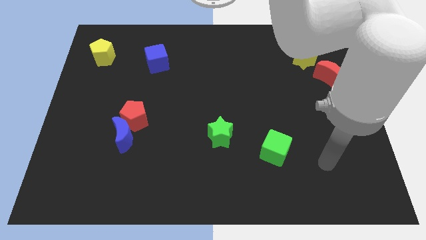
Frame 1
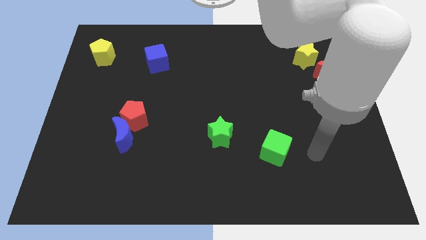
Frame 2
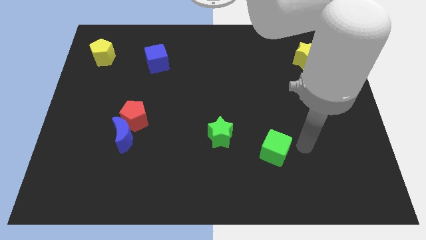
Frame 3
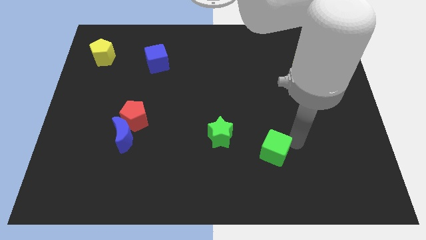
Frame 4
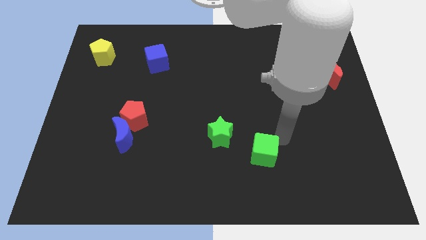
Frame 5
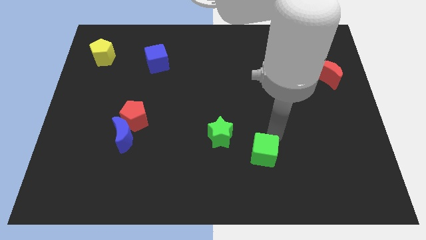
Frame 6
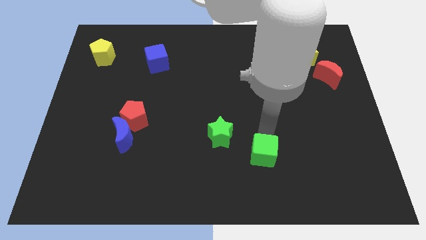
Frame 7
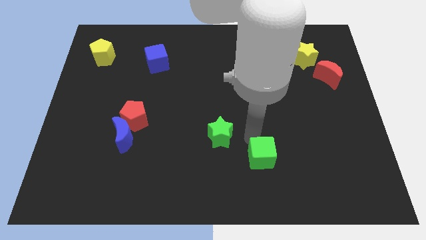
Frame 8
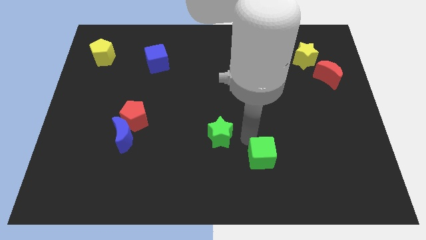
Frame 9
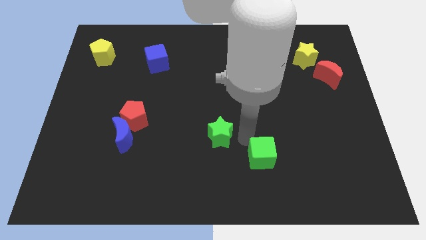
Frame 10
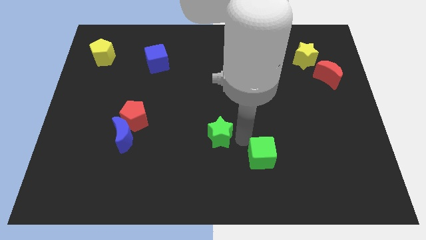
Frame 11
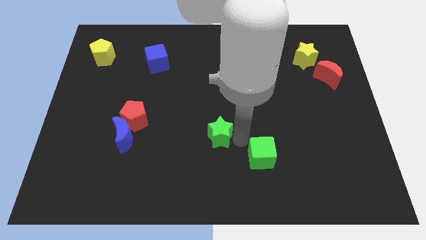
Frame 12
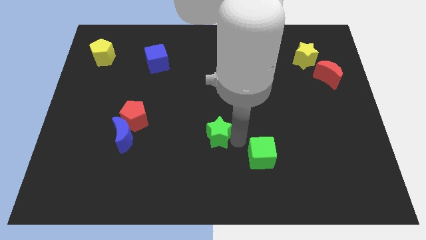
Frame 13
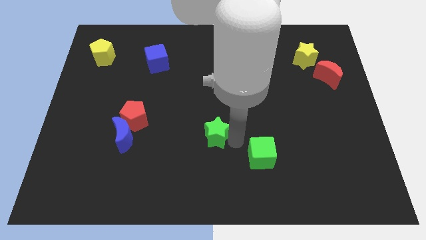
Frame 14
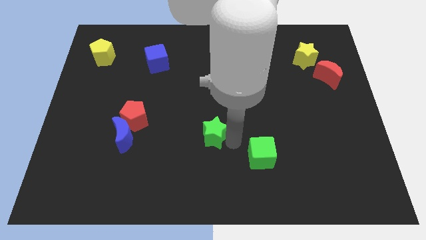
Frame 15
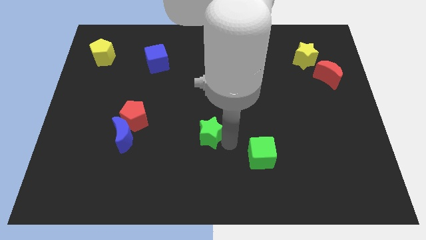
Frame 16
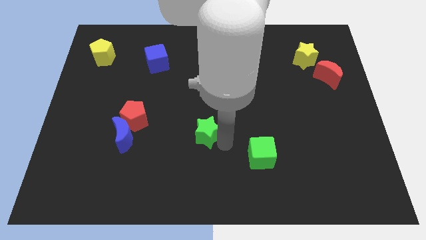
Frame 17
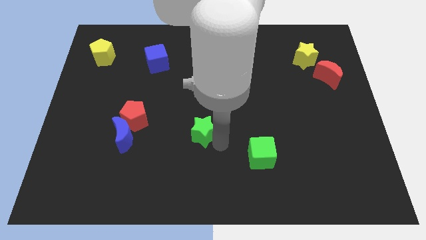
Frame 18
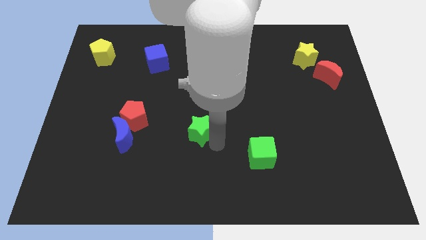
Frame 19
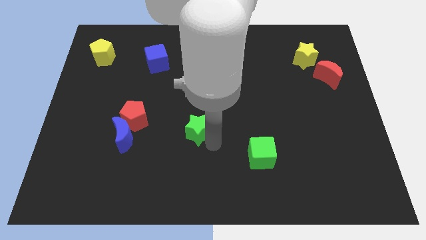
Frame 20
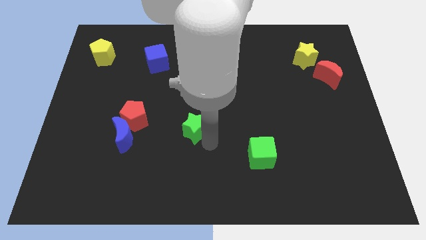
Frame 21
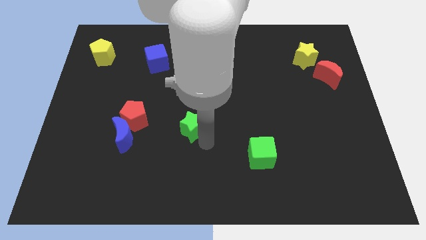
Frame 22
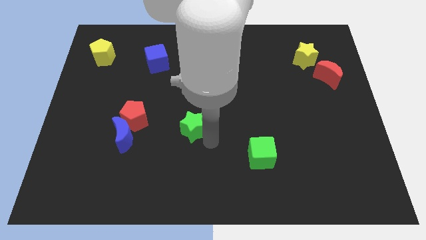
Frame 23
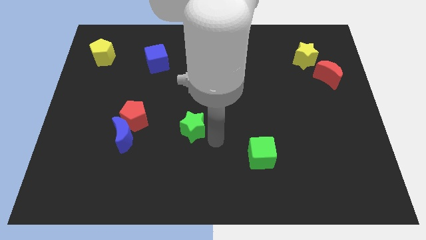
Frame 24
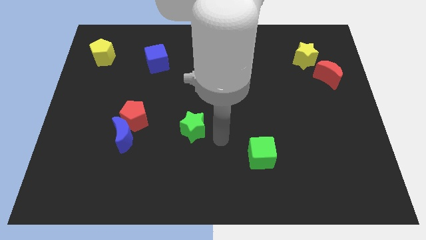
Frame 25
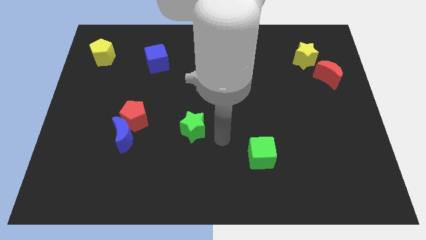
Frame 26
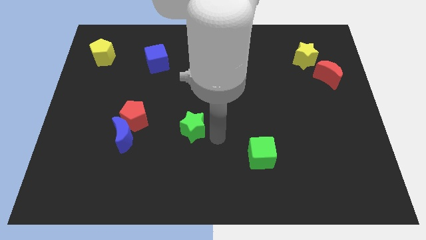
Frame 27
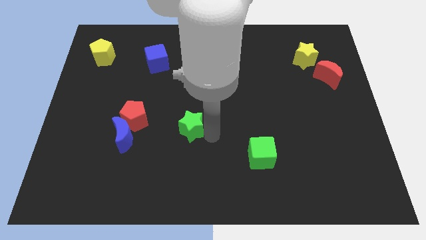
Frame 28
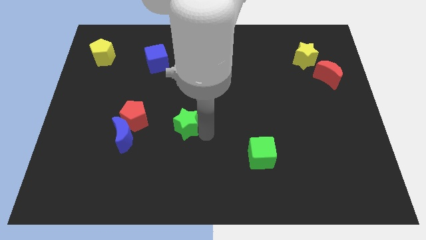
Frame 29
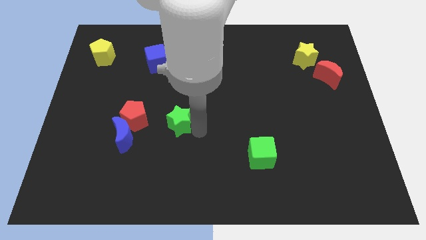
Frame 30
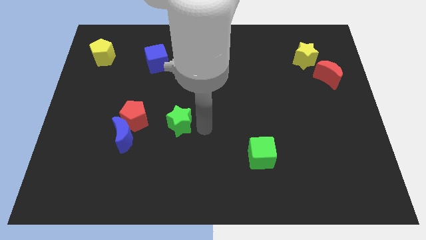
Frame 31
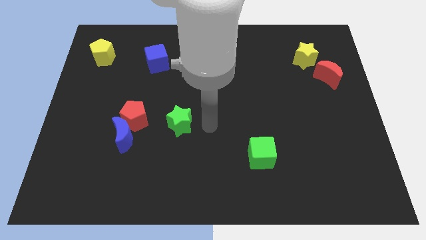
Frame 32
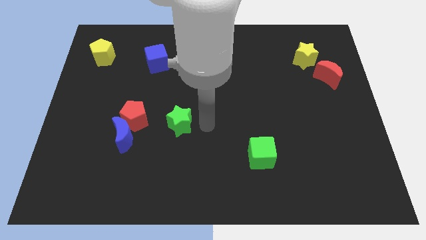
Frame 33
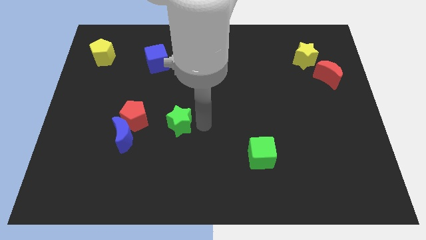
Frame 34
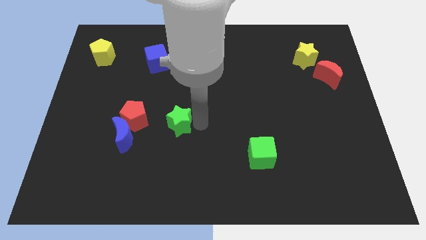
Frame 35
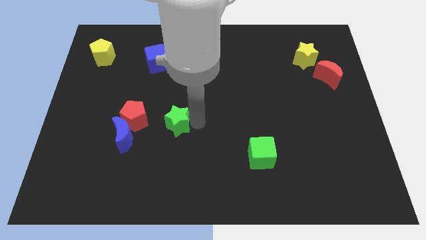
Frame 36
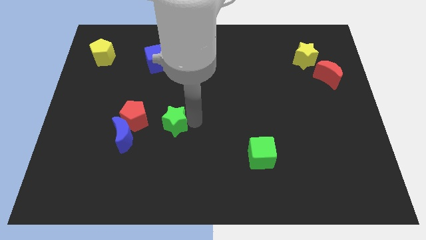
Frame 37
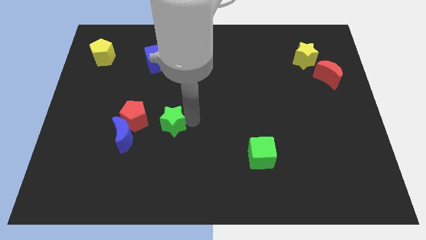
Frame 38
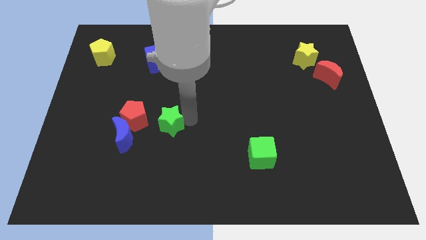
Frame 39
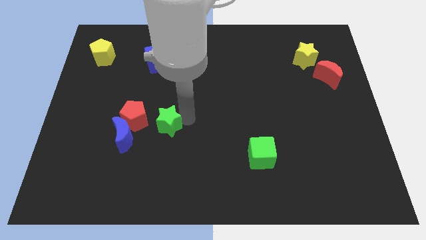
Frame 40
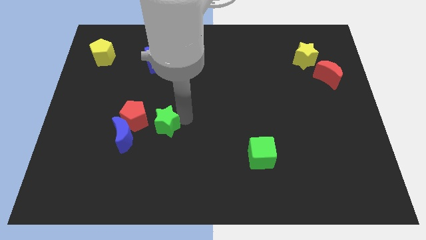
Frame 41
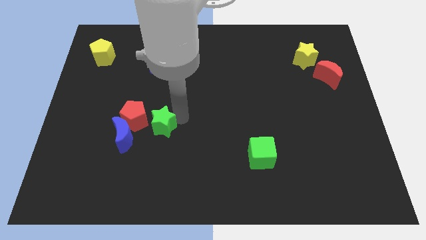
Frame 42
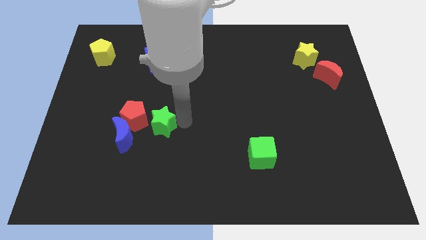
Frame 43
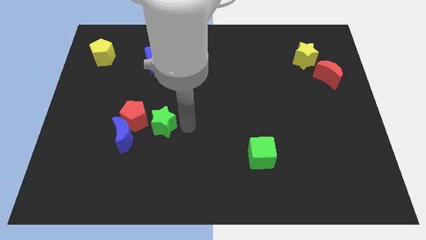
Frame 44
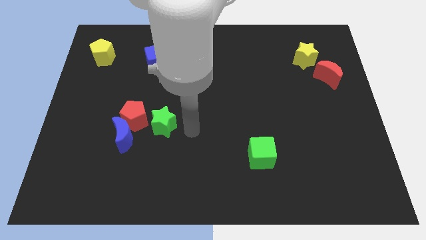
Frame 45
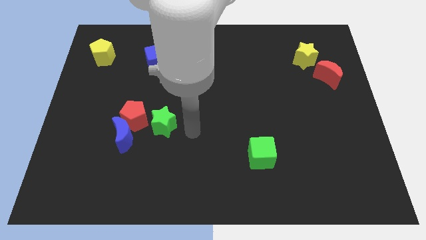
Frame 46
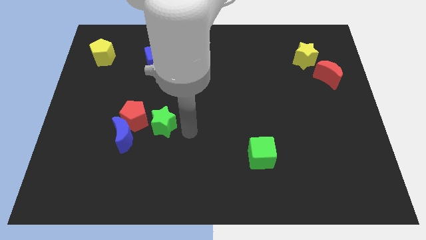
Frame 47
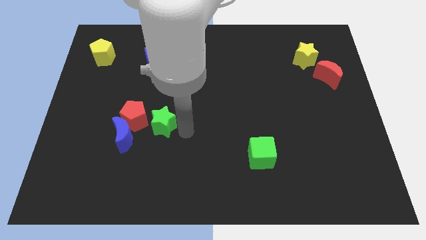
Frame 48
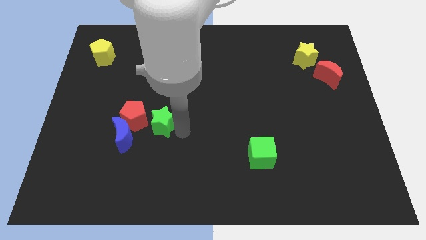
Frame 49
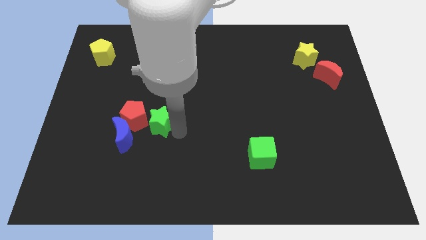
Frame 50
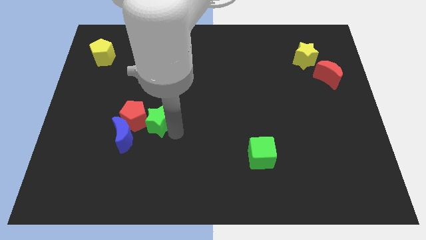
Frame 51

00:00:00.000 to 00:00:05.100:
move the green star next to the red pentagon

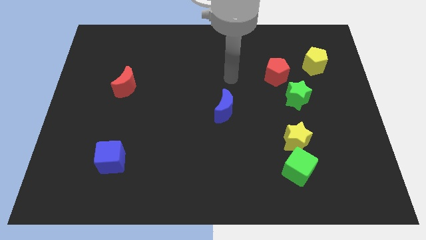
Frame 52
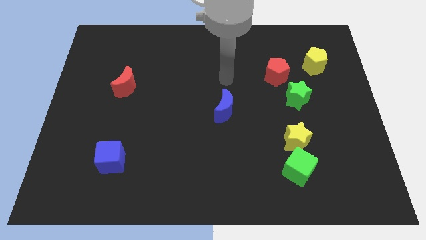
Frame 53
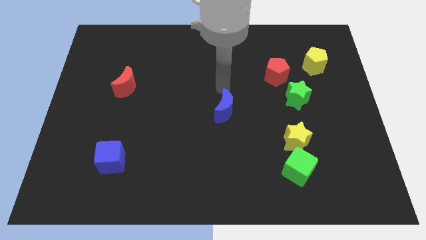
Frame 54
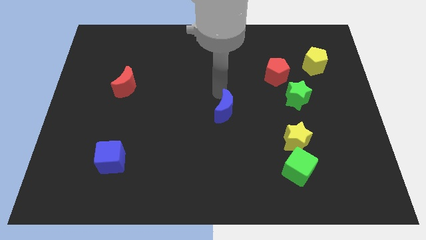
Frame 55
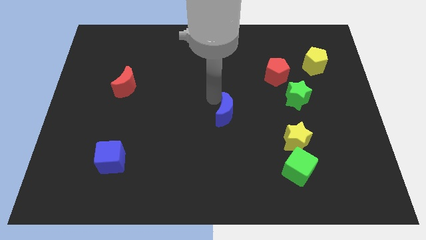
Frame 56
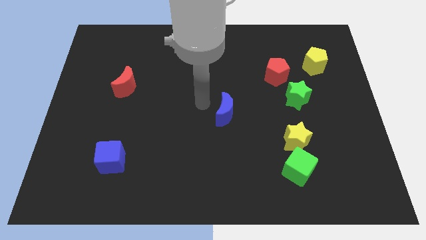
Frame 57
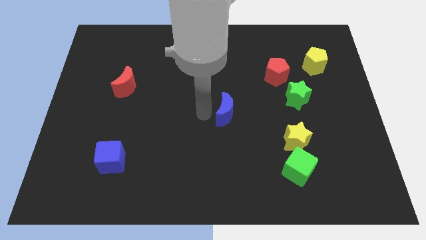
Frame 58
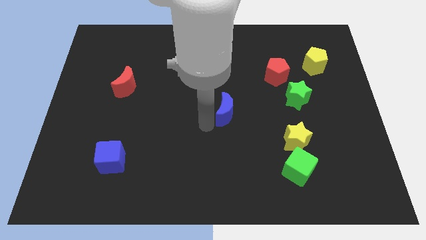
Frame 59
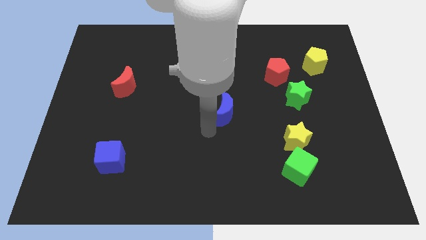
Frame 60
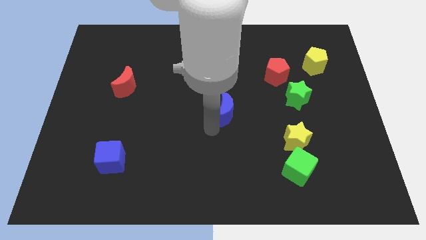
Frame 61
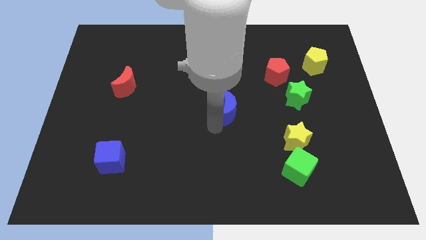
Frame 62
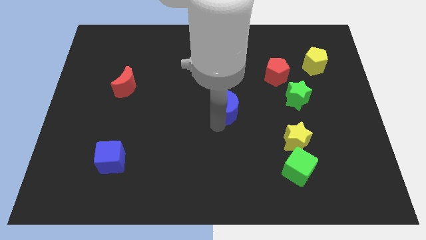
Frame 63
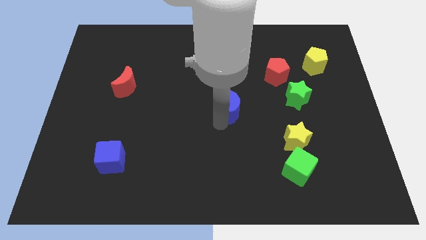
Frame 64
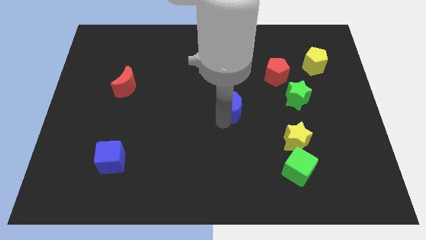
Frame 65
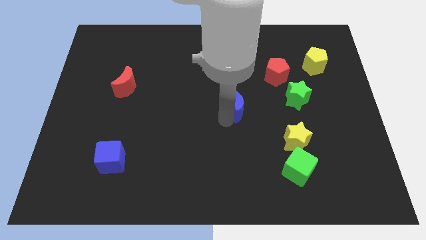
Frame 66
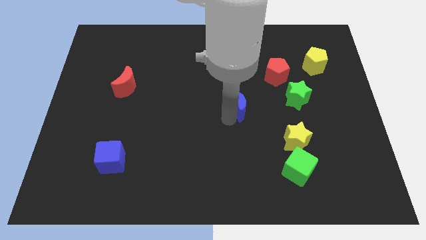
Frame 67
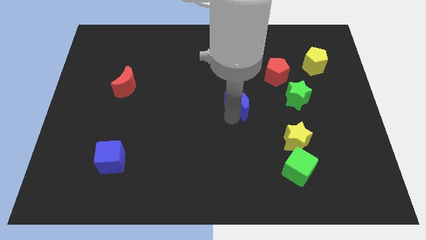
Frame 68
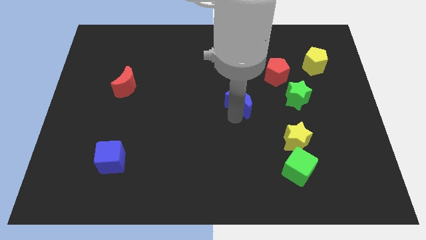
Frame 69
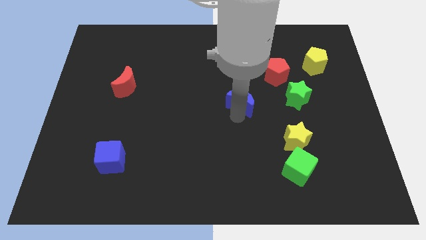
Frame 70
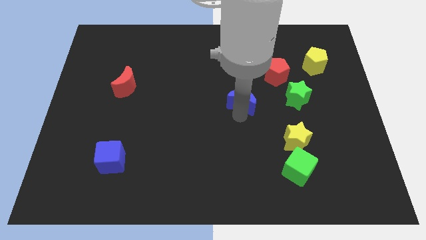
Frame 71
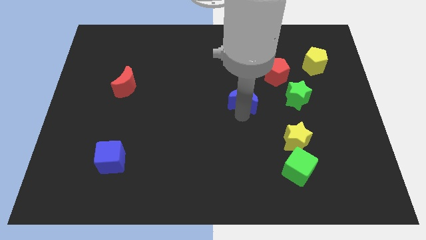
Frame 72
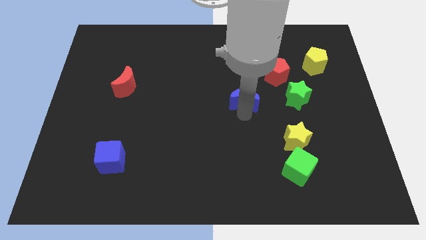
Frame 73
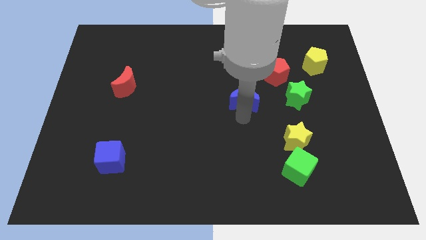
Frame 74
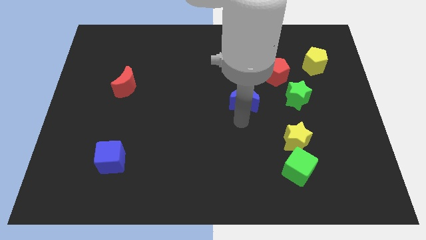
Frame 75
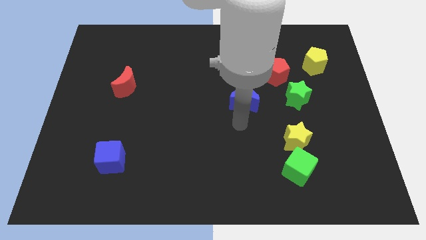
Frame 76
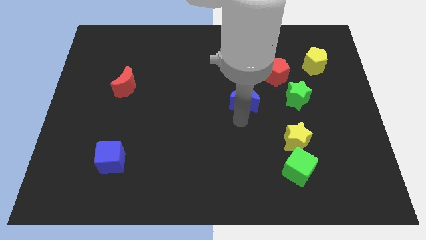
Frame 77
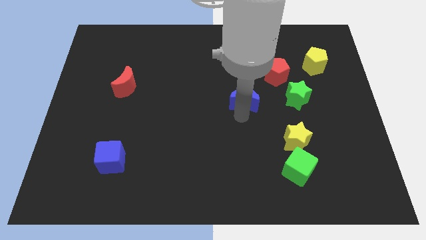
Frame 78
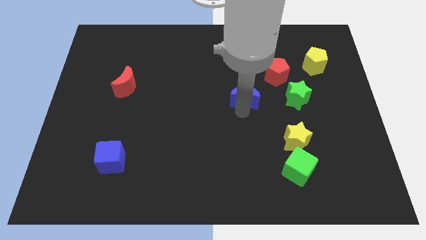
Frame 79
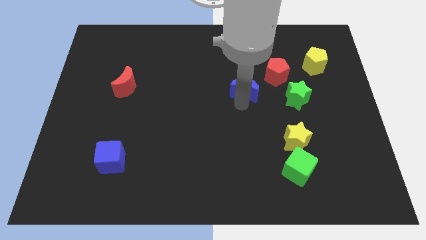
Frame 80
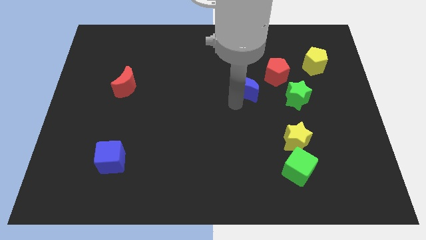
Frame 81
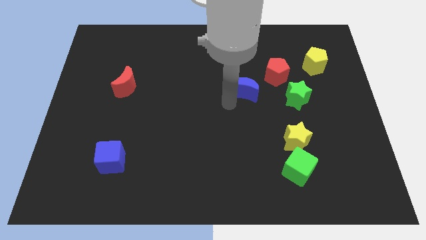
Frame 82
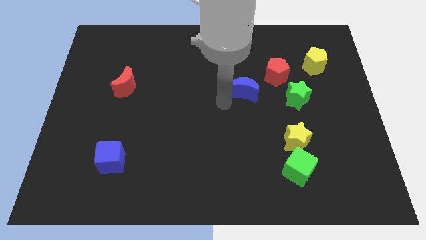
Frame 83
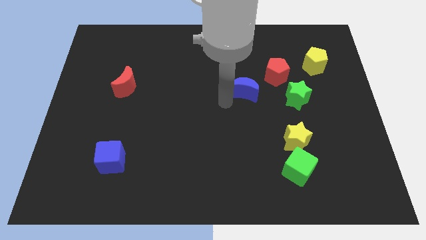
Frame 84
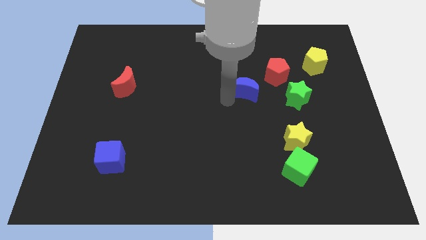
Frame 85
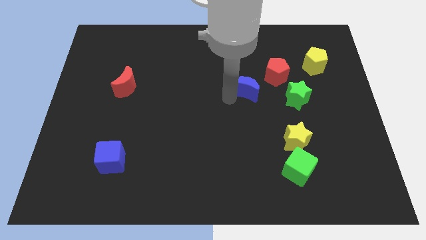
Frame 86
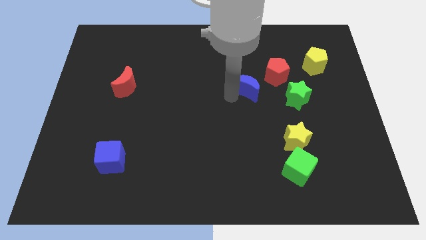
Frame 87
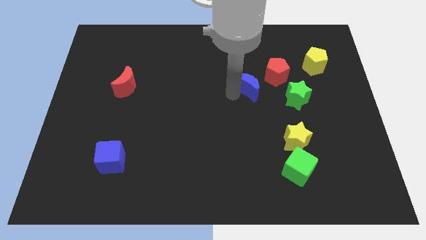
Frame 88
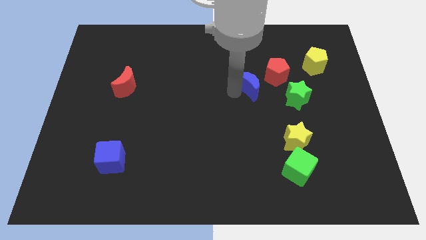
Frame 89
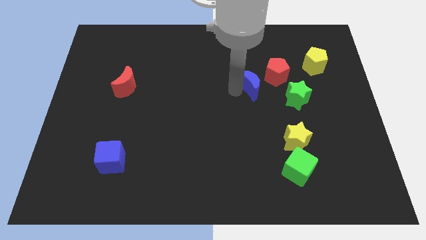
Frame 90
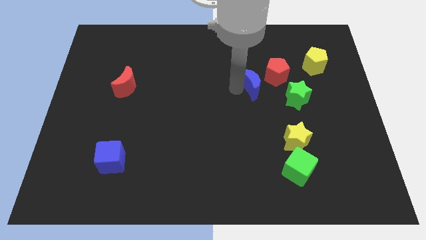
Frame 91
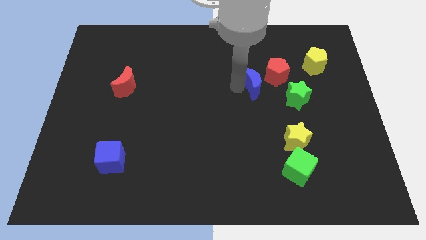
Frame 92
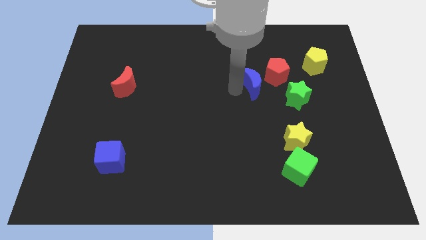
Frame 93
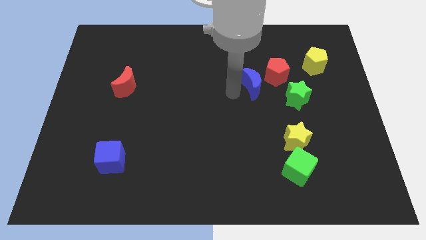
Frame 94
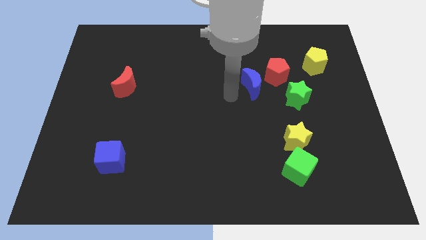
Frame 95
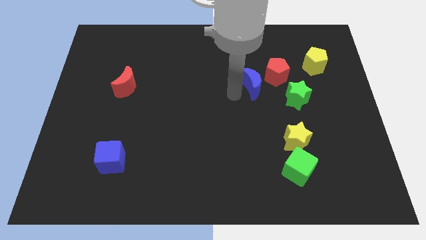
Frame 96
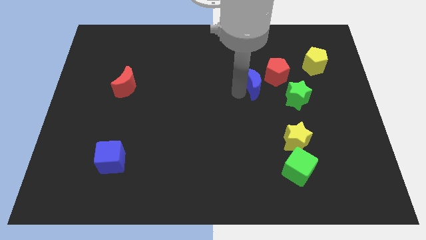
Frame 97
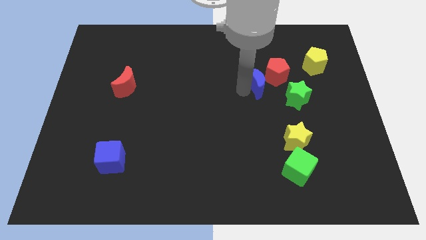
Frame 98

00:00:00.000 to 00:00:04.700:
put the blue moon close to the red pentagon
